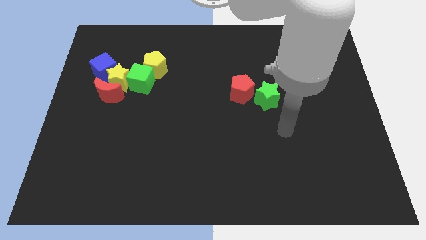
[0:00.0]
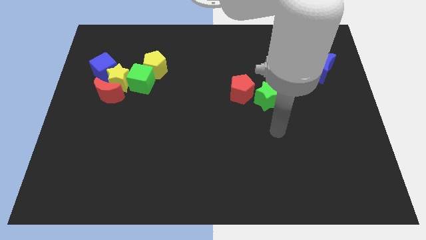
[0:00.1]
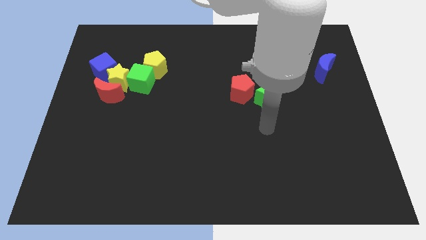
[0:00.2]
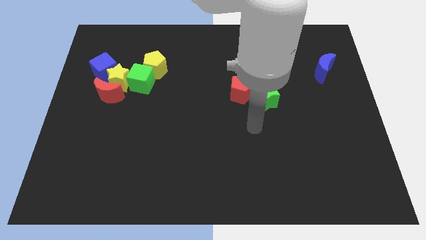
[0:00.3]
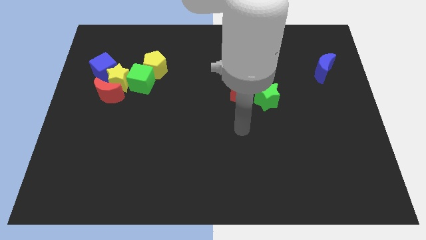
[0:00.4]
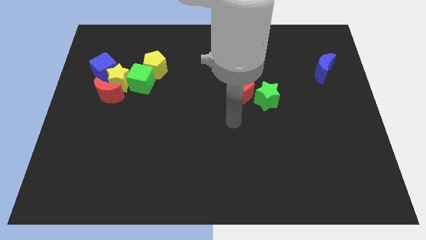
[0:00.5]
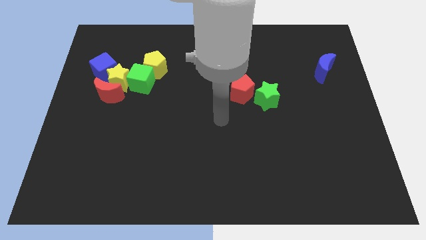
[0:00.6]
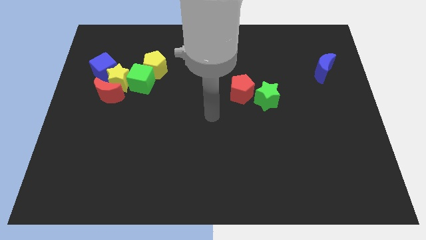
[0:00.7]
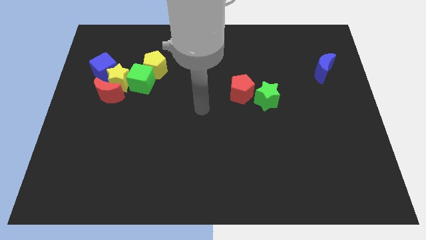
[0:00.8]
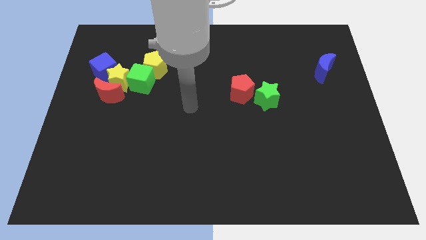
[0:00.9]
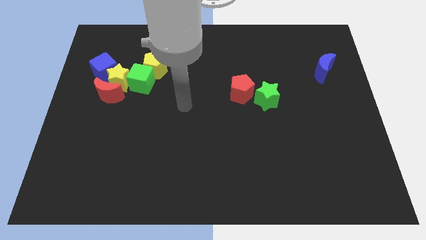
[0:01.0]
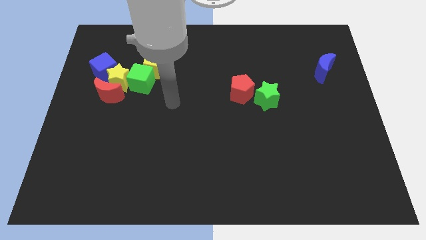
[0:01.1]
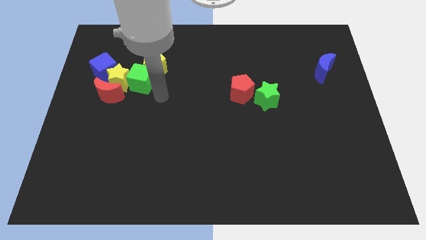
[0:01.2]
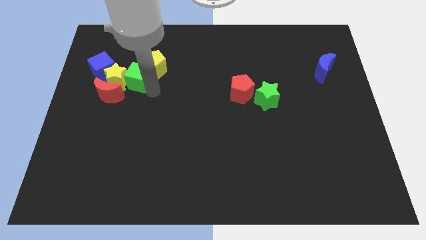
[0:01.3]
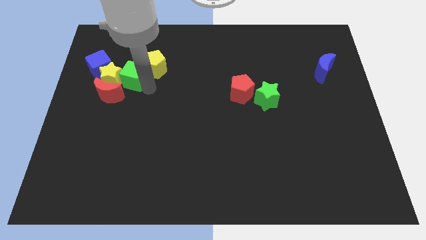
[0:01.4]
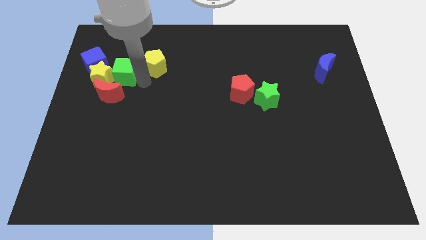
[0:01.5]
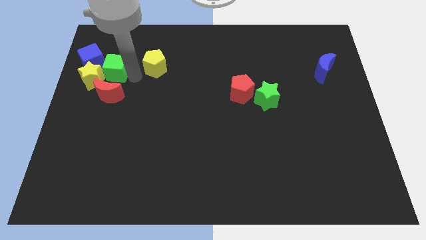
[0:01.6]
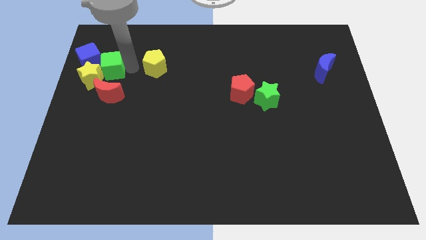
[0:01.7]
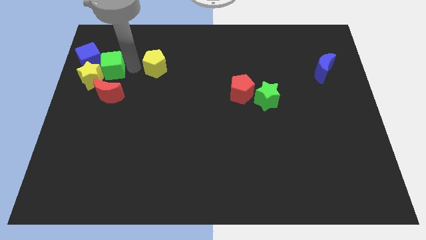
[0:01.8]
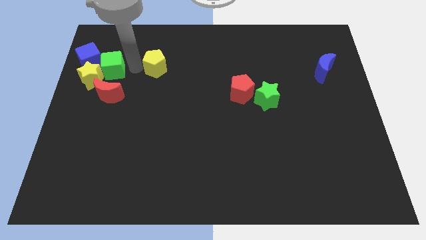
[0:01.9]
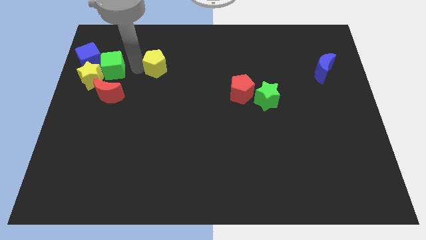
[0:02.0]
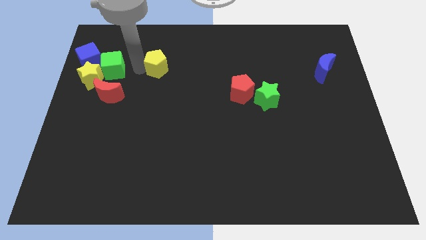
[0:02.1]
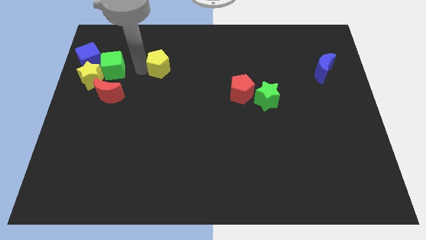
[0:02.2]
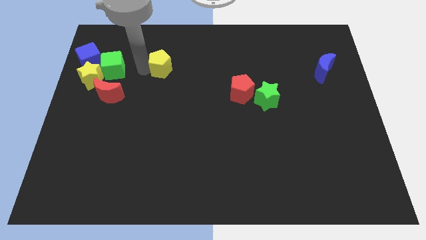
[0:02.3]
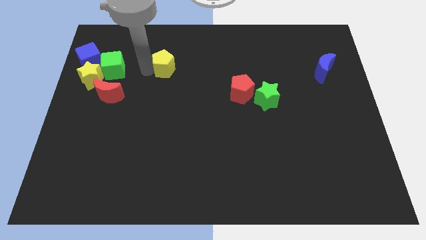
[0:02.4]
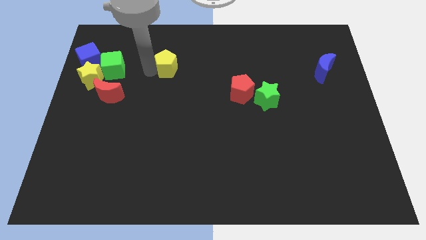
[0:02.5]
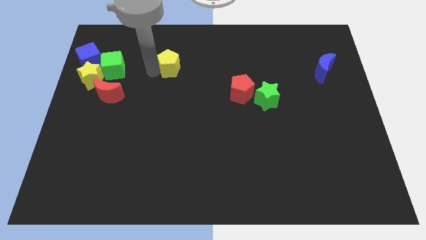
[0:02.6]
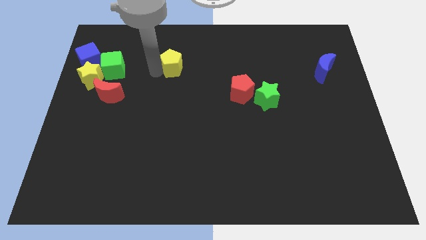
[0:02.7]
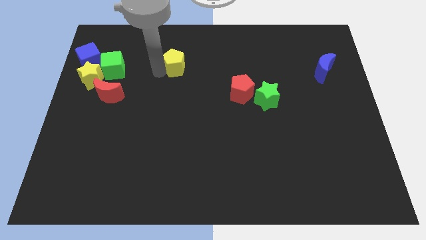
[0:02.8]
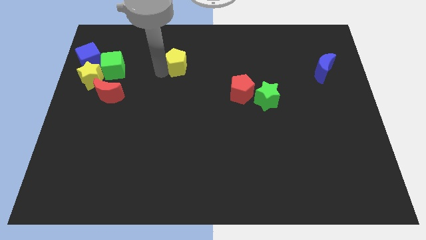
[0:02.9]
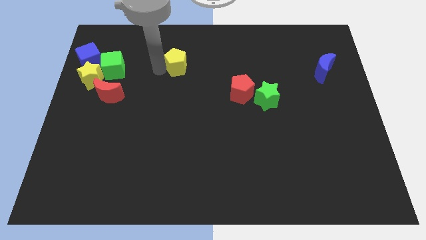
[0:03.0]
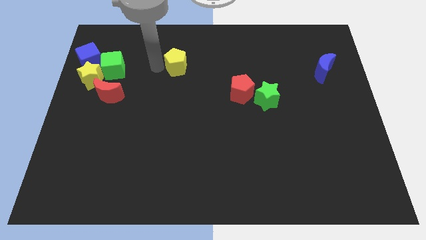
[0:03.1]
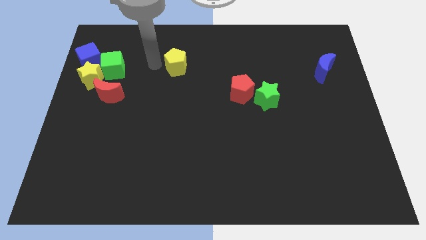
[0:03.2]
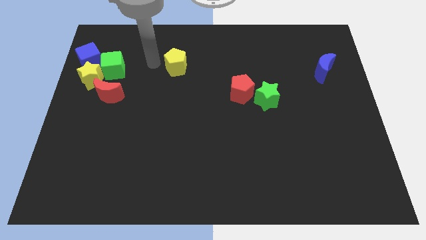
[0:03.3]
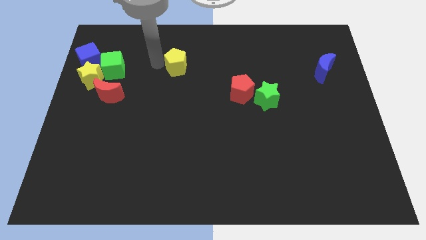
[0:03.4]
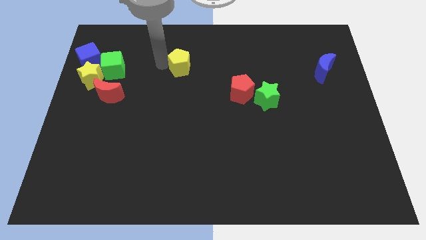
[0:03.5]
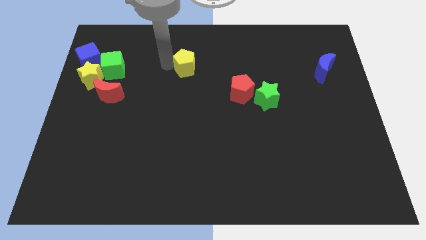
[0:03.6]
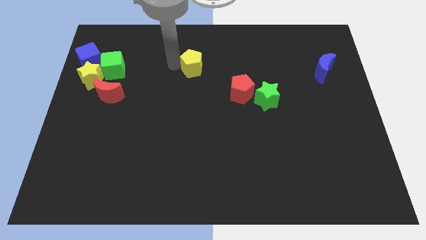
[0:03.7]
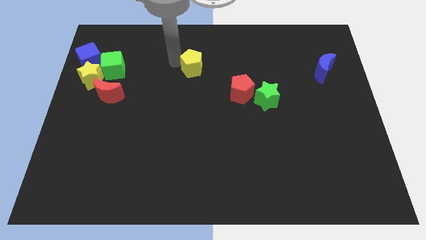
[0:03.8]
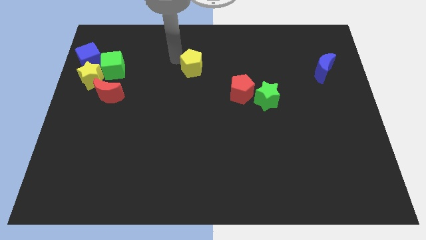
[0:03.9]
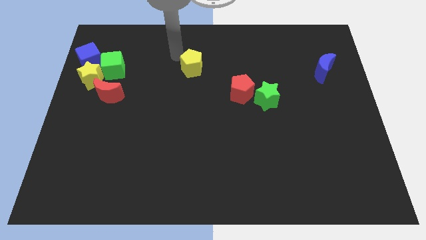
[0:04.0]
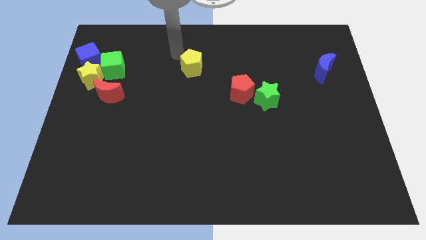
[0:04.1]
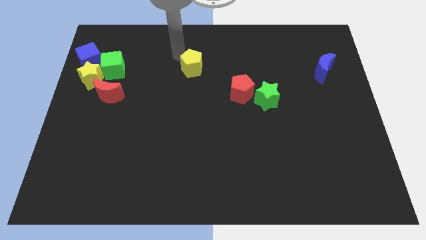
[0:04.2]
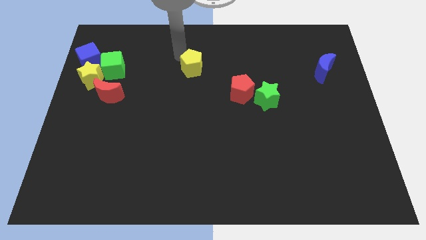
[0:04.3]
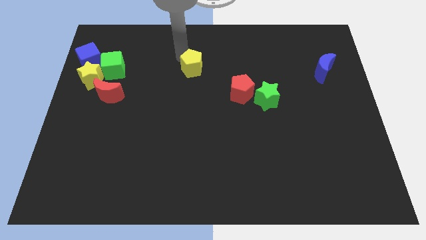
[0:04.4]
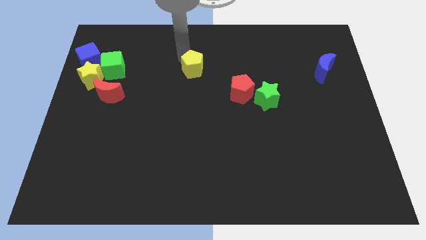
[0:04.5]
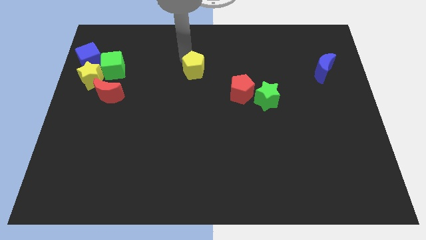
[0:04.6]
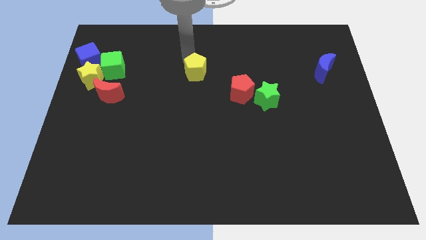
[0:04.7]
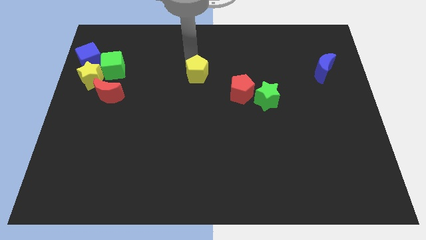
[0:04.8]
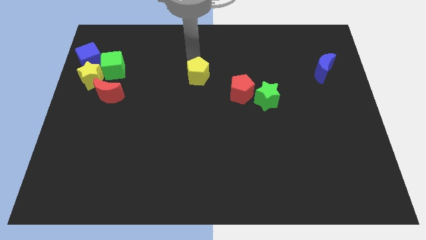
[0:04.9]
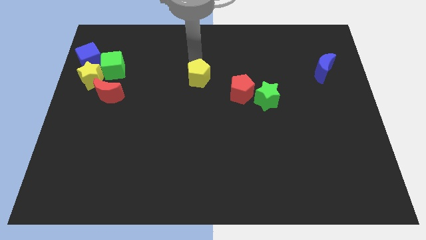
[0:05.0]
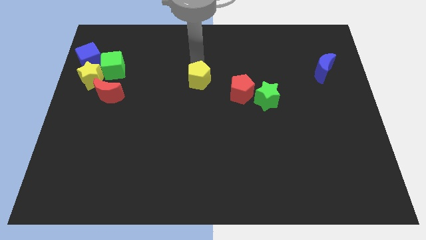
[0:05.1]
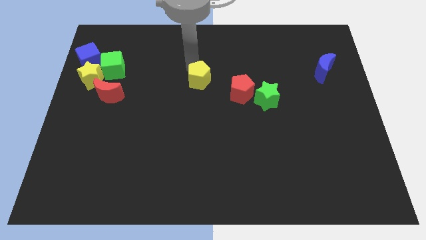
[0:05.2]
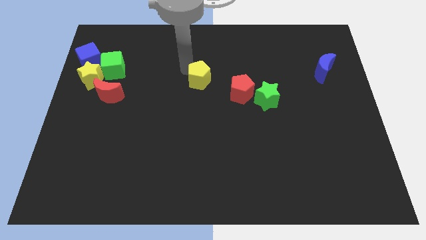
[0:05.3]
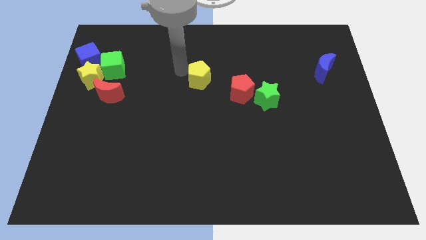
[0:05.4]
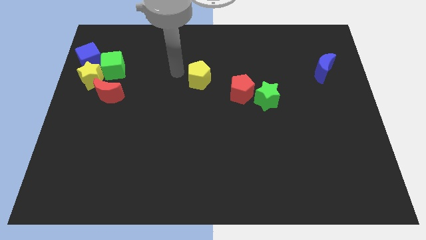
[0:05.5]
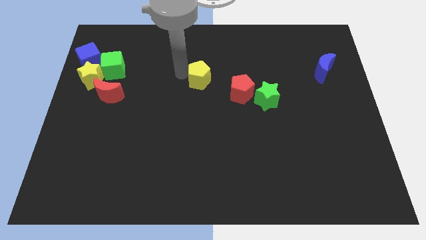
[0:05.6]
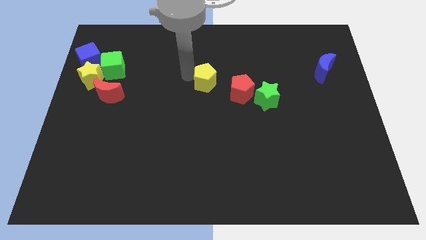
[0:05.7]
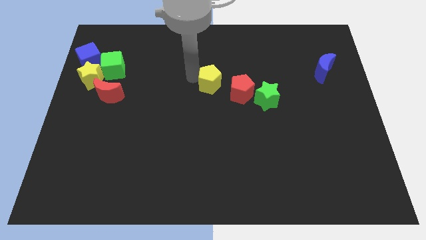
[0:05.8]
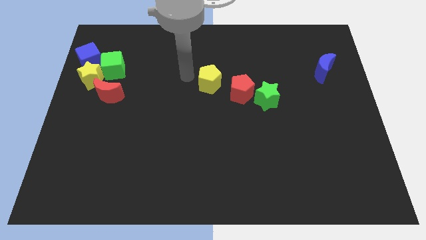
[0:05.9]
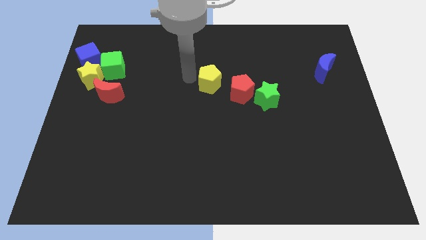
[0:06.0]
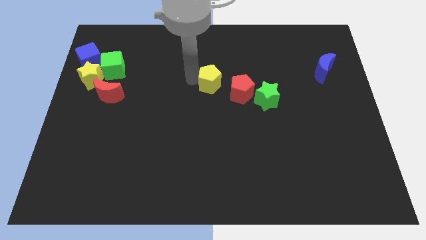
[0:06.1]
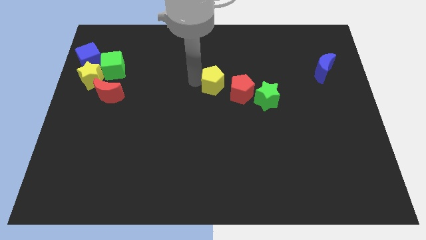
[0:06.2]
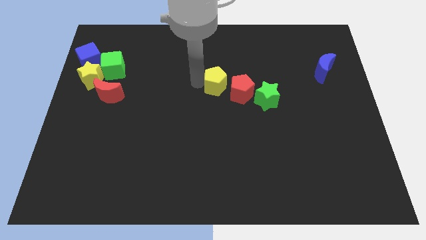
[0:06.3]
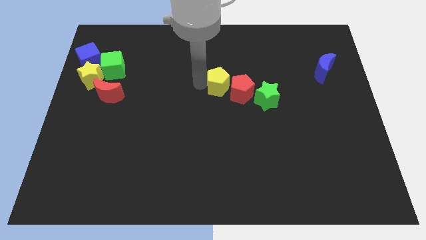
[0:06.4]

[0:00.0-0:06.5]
put the yellow pentagon to the red pentagon

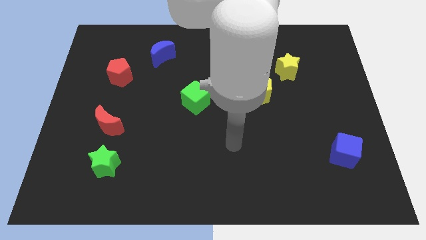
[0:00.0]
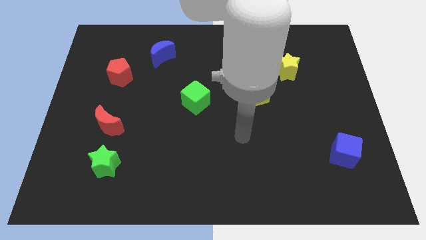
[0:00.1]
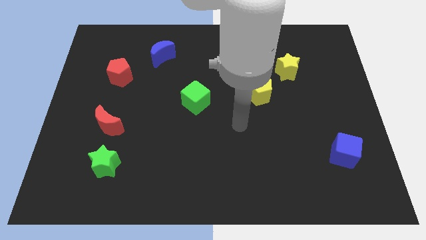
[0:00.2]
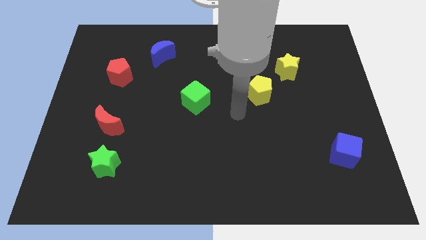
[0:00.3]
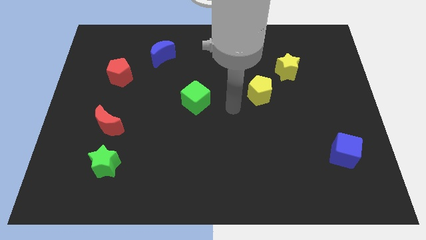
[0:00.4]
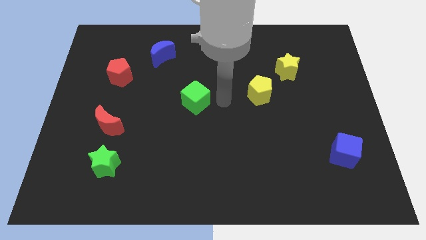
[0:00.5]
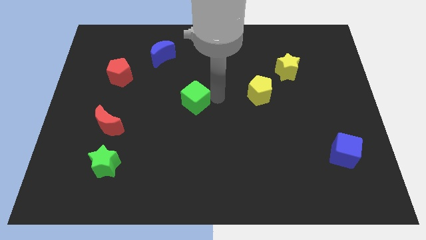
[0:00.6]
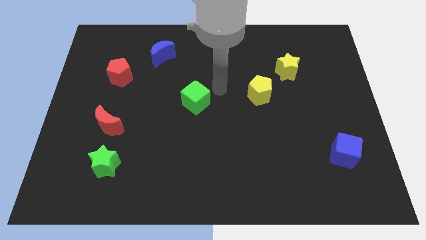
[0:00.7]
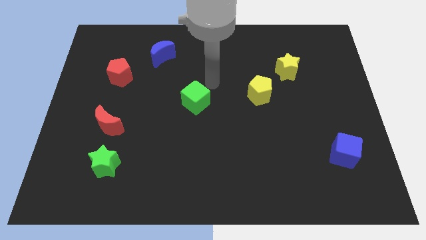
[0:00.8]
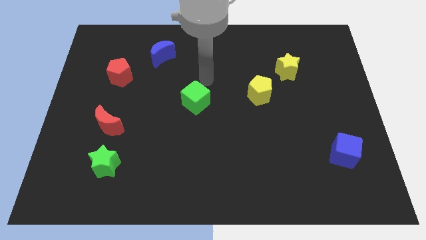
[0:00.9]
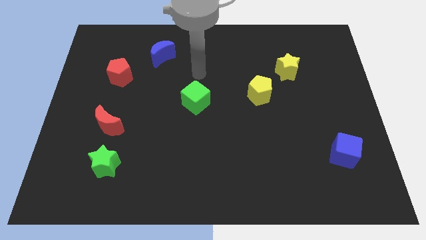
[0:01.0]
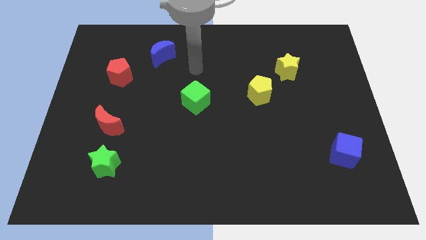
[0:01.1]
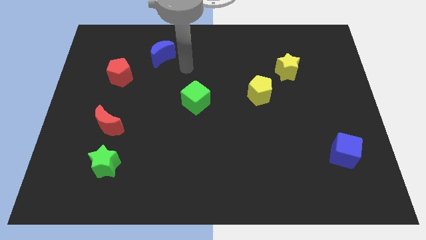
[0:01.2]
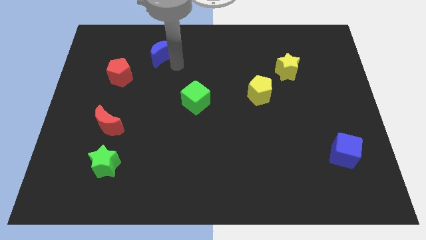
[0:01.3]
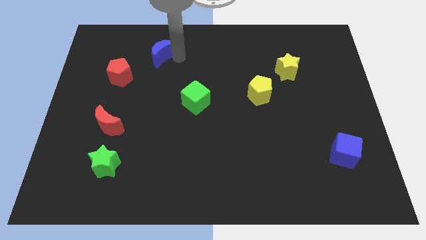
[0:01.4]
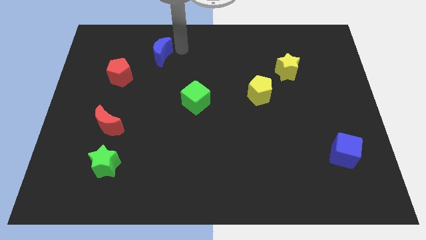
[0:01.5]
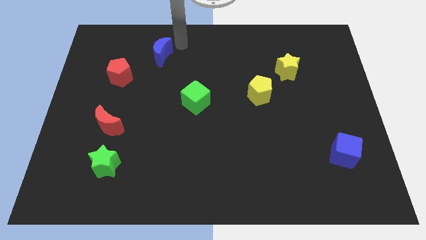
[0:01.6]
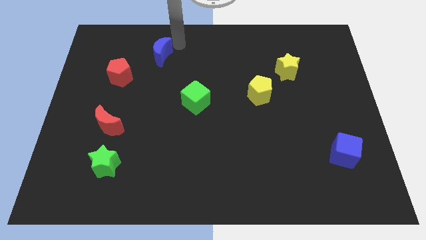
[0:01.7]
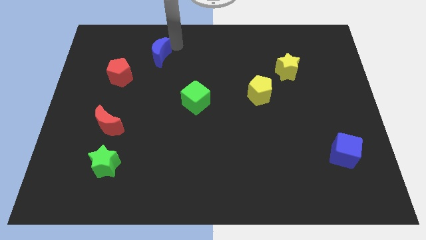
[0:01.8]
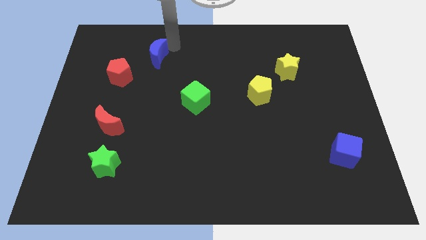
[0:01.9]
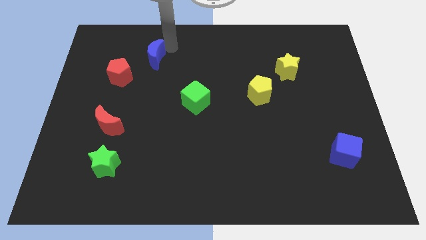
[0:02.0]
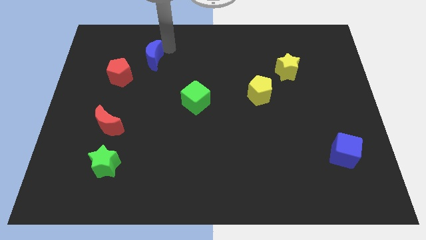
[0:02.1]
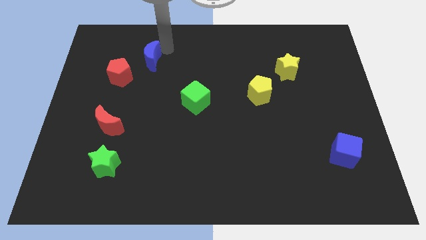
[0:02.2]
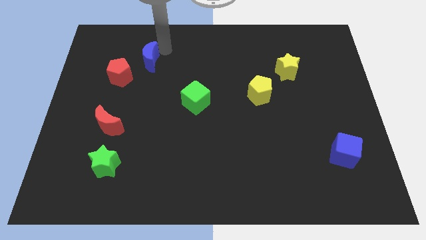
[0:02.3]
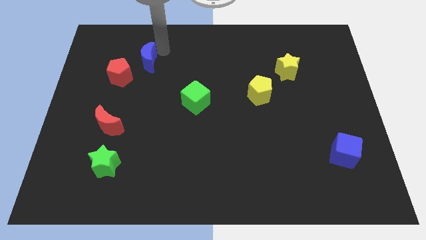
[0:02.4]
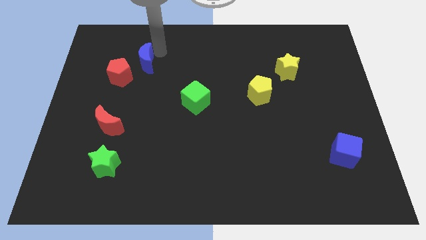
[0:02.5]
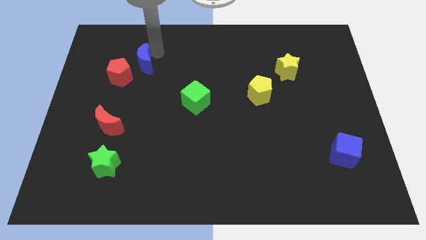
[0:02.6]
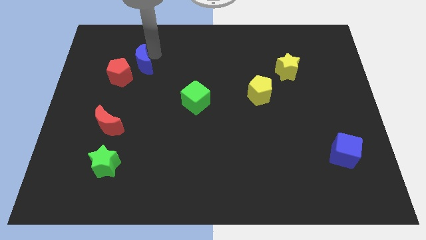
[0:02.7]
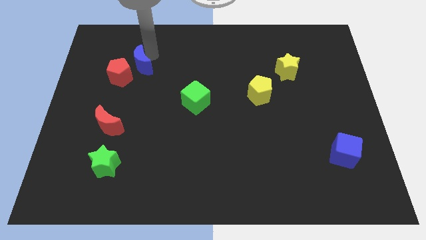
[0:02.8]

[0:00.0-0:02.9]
move the blue moon to the red pentagon
